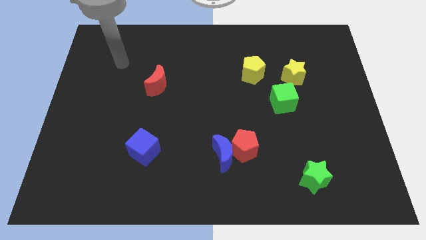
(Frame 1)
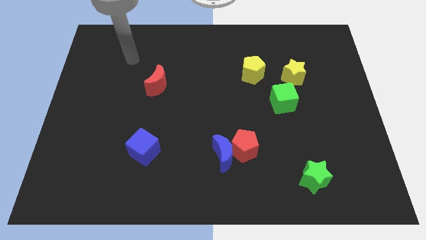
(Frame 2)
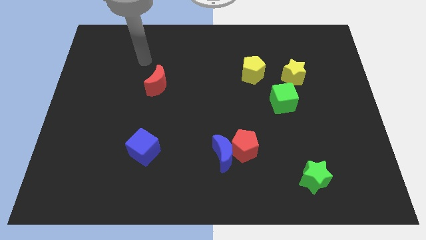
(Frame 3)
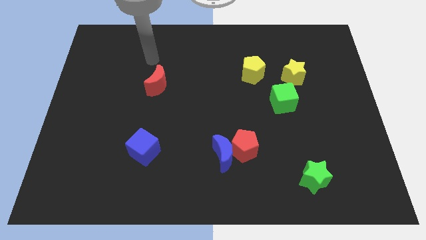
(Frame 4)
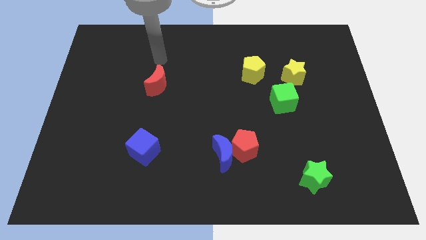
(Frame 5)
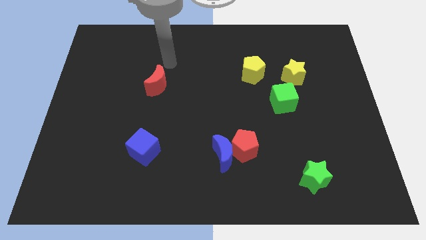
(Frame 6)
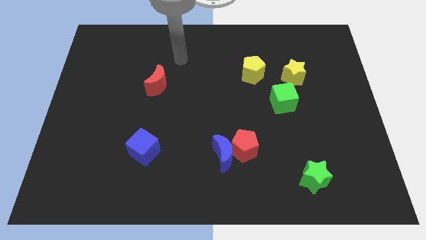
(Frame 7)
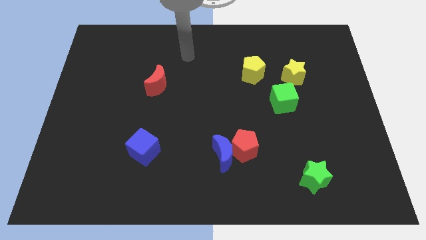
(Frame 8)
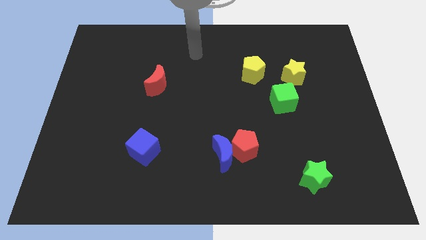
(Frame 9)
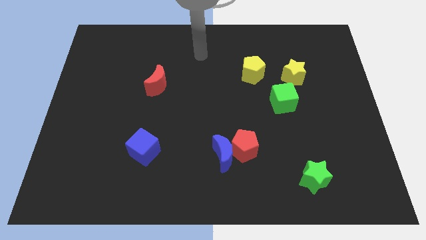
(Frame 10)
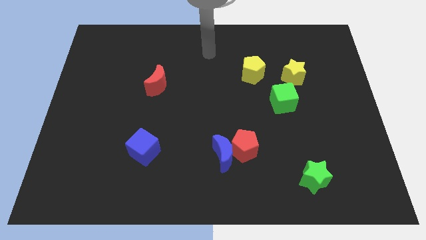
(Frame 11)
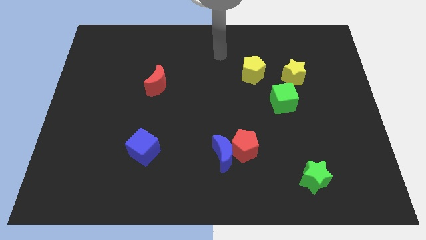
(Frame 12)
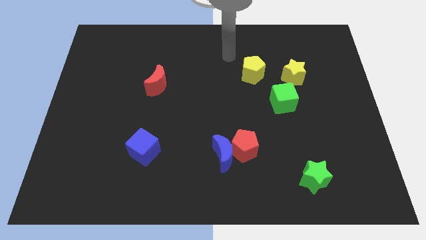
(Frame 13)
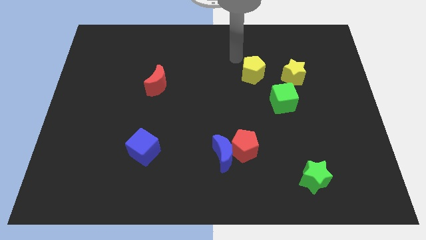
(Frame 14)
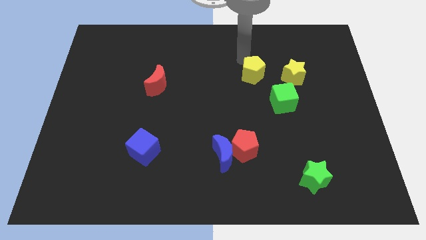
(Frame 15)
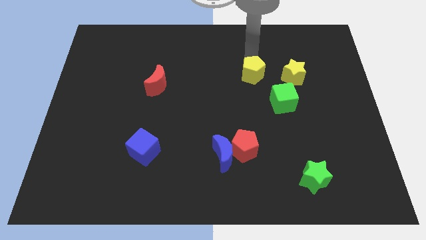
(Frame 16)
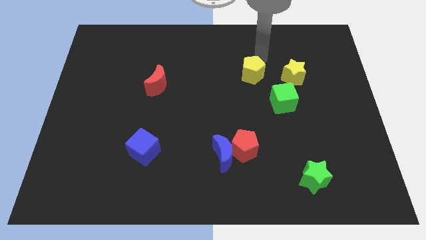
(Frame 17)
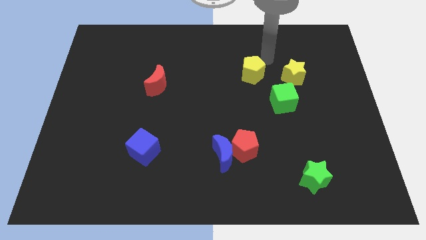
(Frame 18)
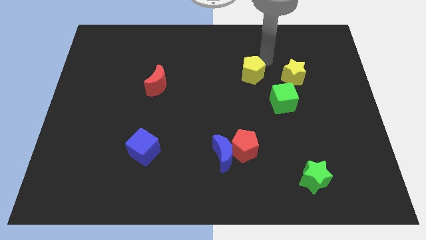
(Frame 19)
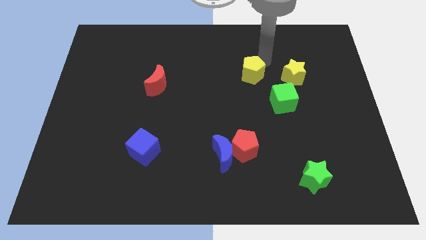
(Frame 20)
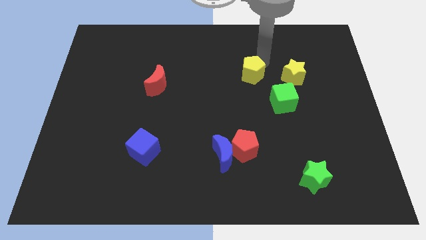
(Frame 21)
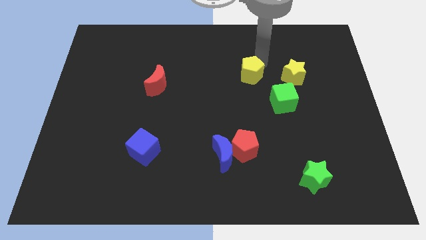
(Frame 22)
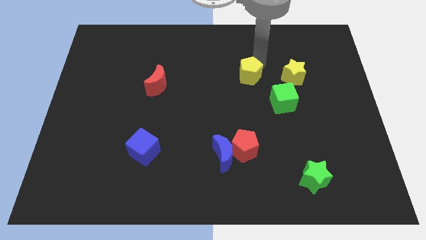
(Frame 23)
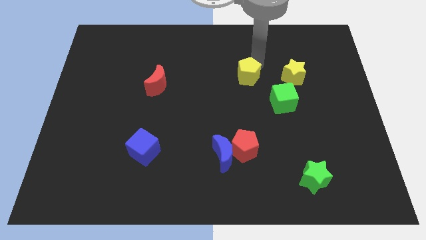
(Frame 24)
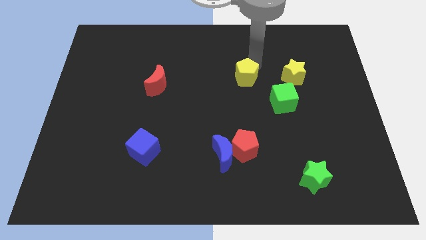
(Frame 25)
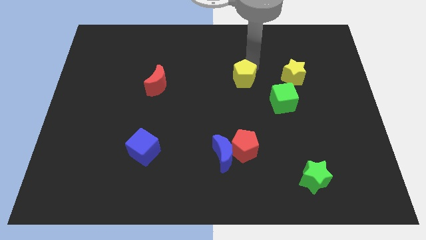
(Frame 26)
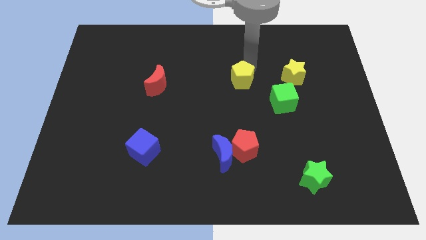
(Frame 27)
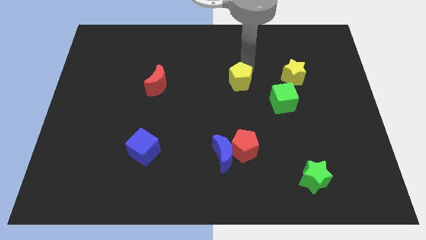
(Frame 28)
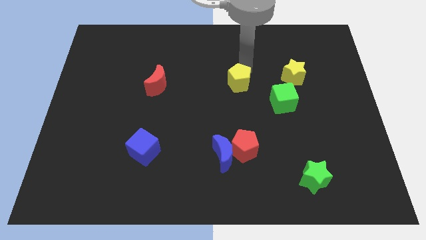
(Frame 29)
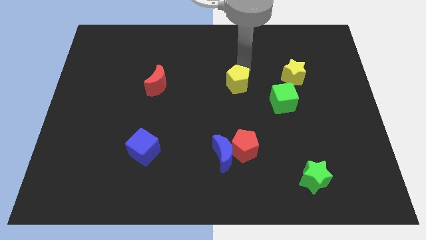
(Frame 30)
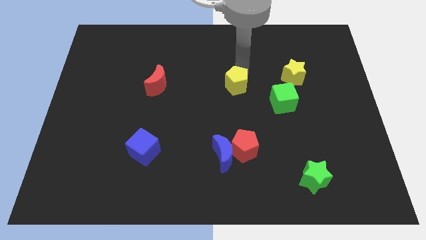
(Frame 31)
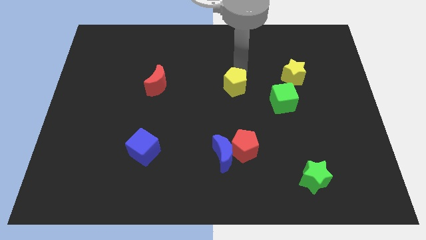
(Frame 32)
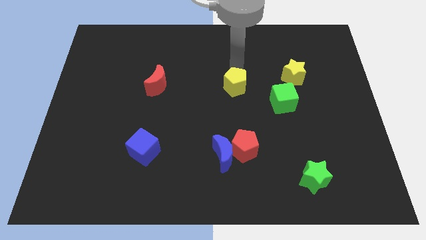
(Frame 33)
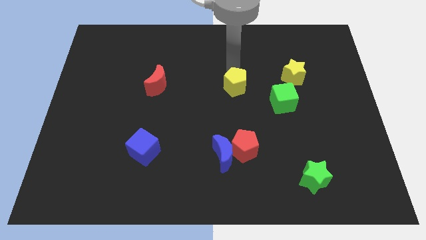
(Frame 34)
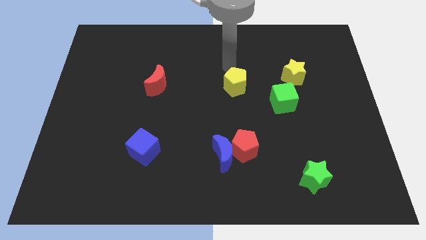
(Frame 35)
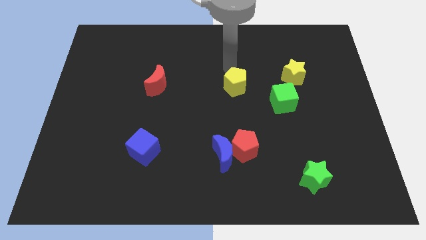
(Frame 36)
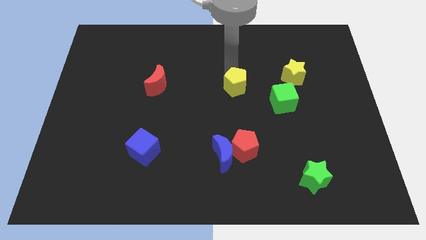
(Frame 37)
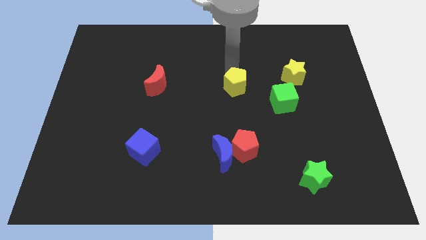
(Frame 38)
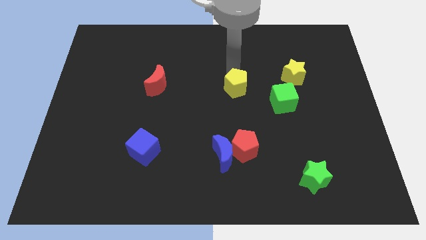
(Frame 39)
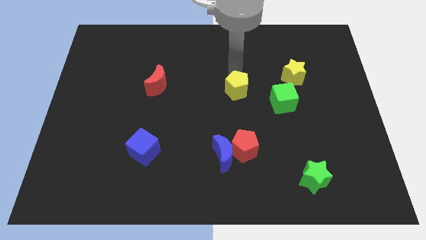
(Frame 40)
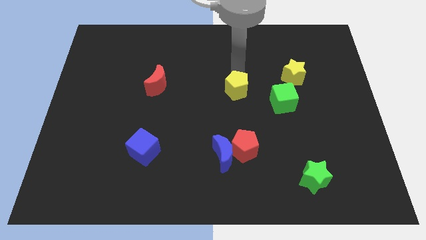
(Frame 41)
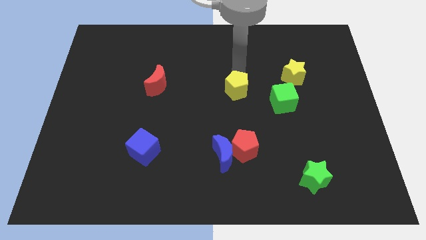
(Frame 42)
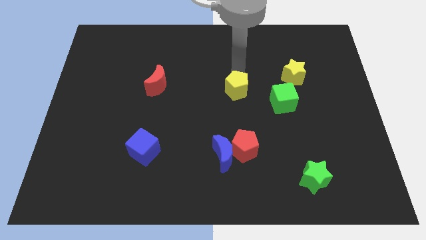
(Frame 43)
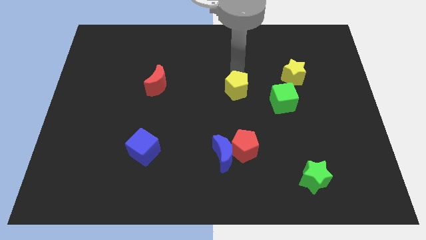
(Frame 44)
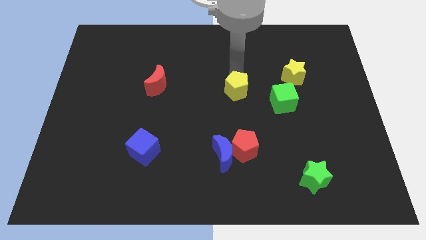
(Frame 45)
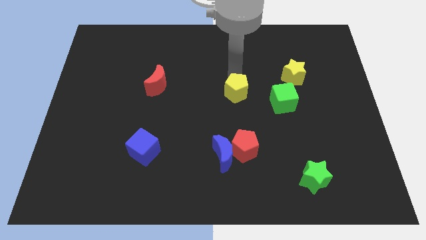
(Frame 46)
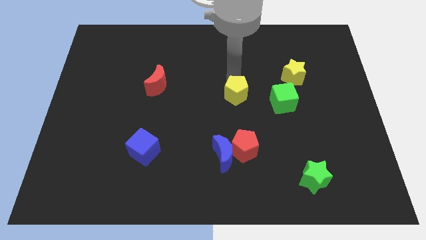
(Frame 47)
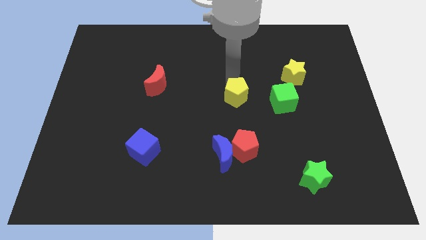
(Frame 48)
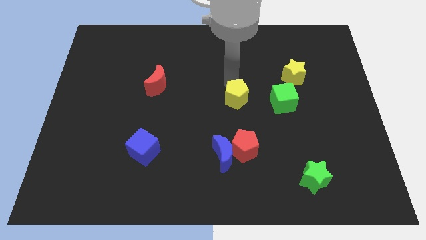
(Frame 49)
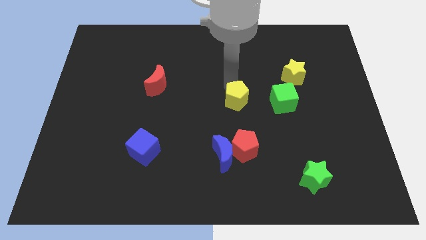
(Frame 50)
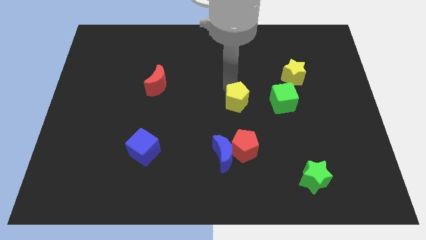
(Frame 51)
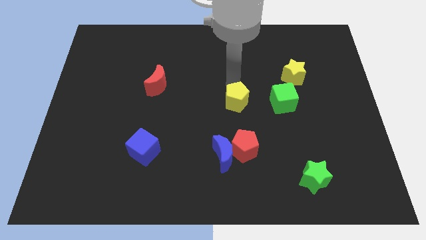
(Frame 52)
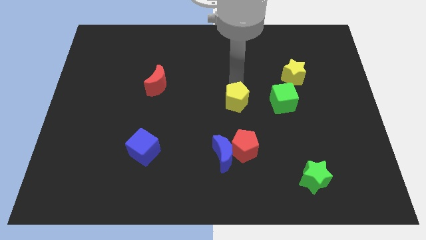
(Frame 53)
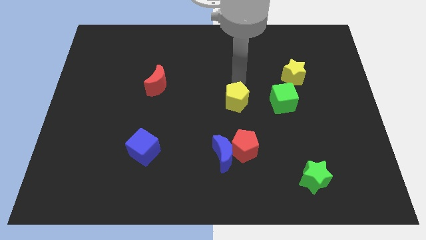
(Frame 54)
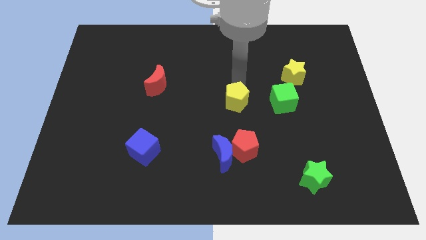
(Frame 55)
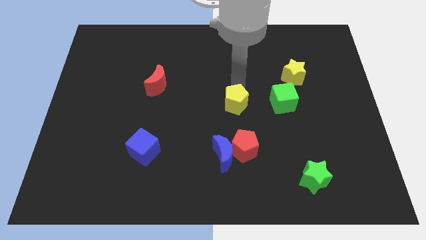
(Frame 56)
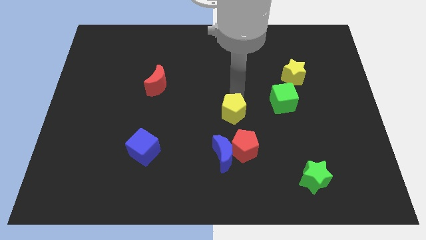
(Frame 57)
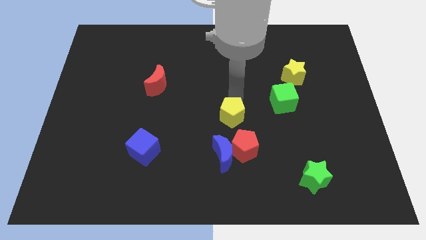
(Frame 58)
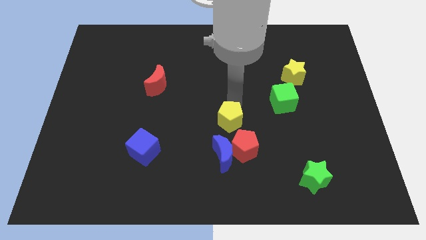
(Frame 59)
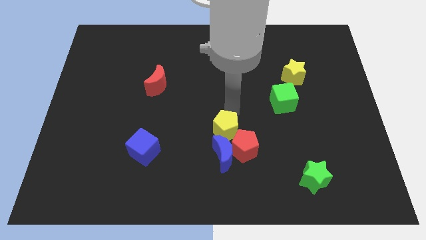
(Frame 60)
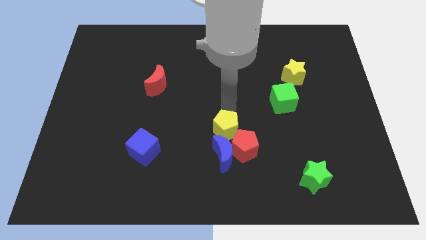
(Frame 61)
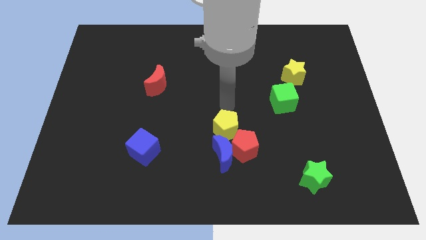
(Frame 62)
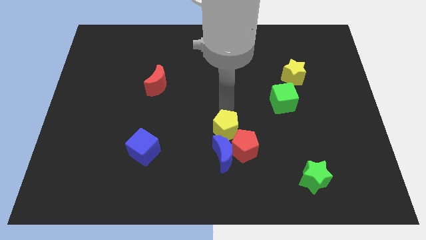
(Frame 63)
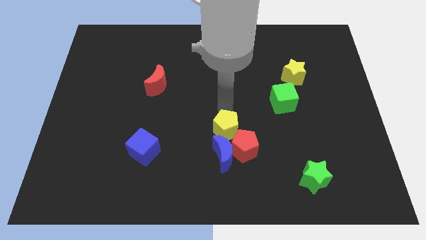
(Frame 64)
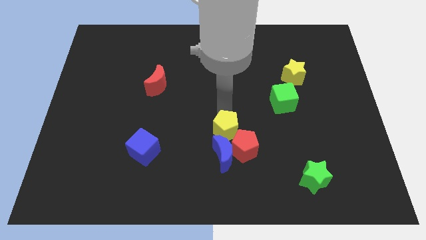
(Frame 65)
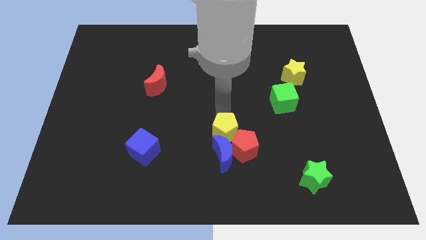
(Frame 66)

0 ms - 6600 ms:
push the yellow pentagon close to the blue moon

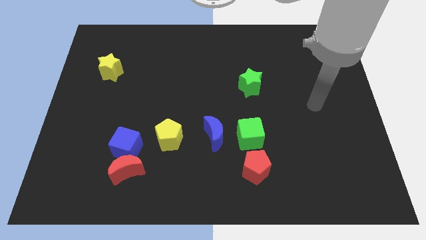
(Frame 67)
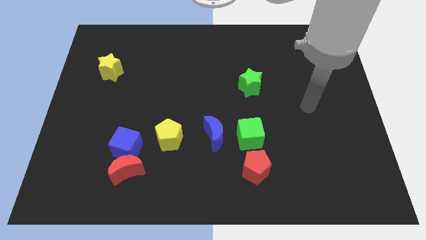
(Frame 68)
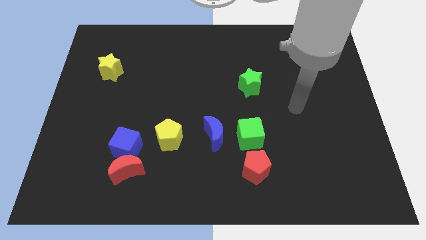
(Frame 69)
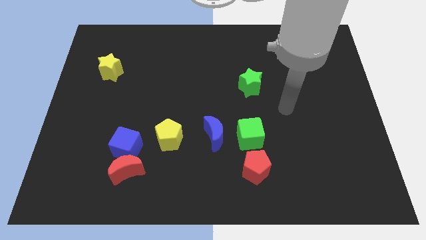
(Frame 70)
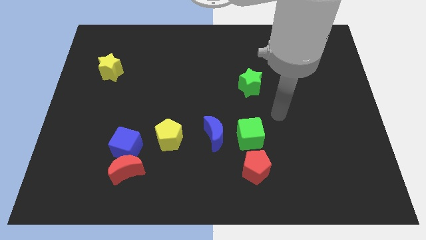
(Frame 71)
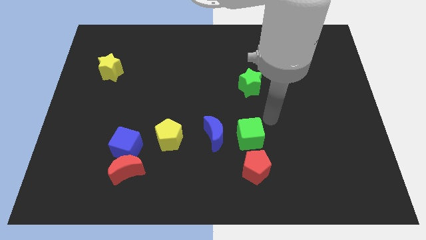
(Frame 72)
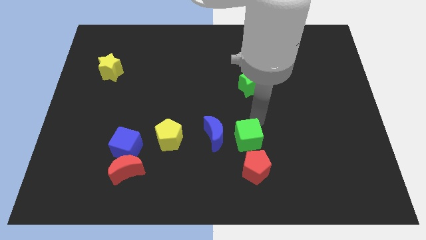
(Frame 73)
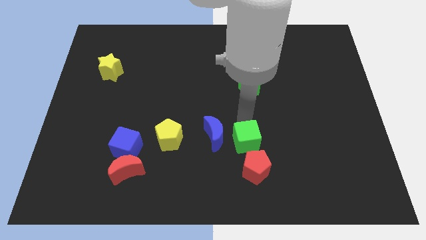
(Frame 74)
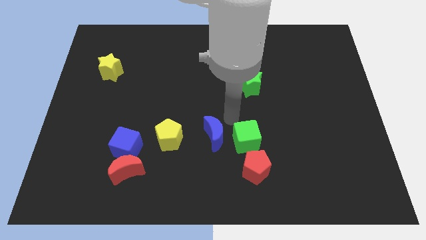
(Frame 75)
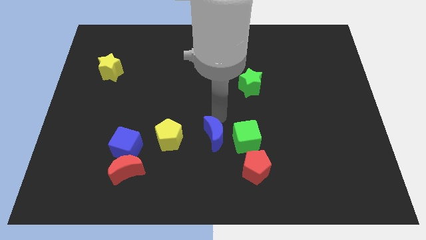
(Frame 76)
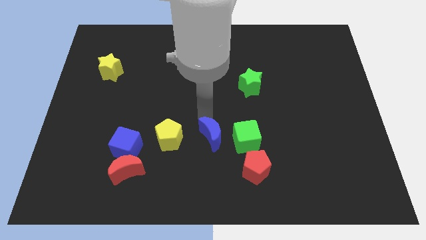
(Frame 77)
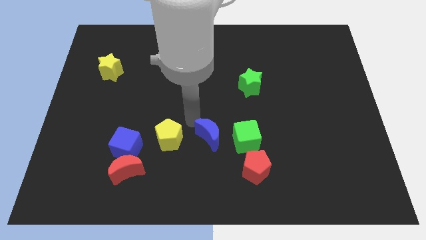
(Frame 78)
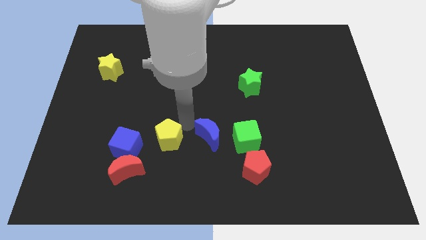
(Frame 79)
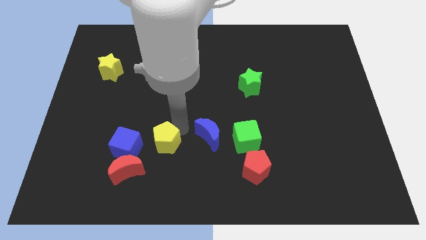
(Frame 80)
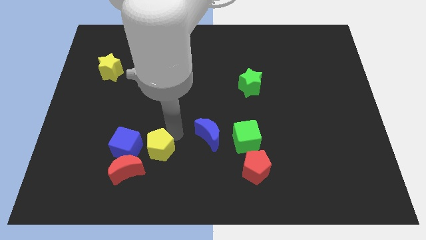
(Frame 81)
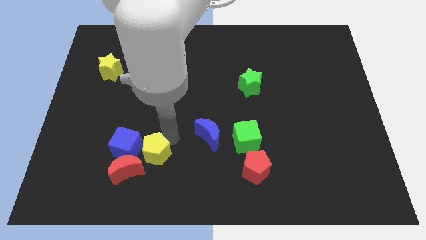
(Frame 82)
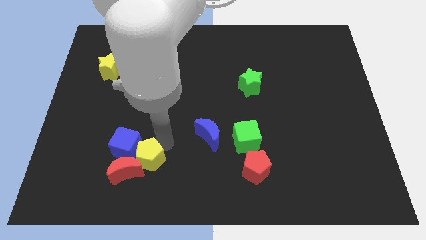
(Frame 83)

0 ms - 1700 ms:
push the yellow pentagon close to the red moon
